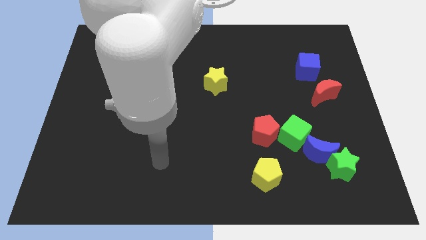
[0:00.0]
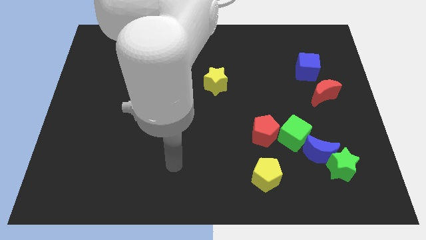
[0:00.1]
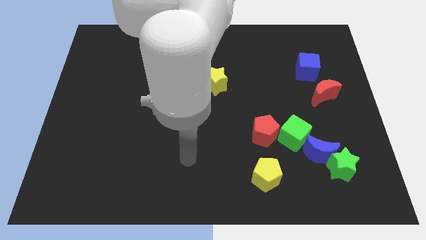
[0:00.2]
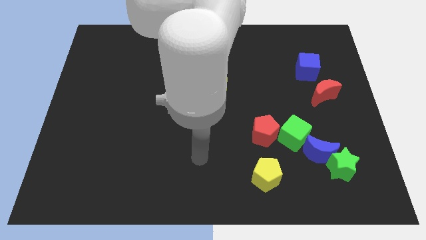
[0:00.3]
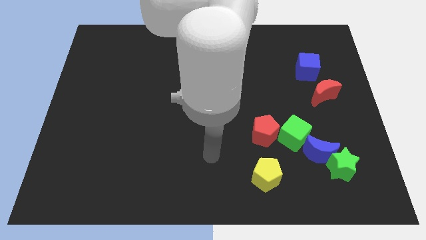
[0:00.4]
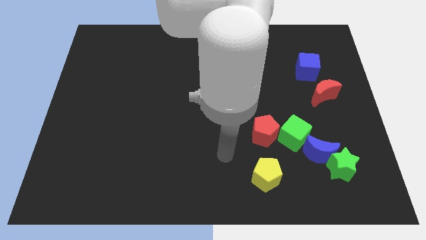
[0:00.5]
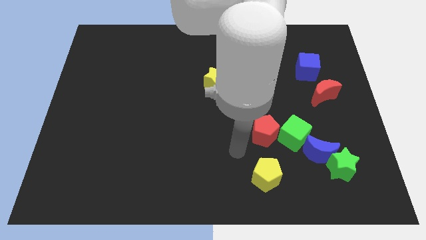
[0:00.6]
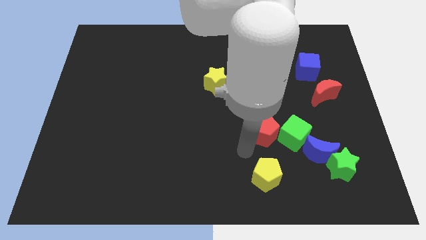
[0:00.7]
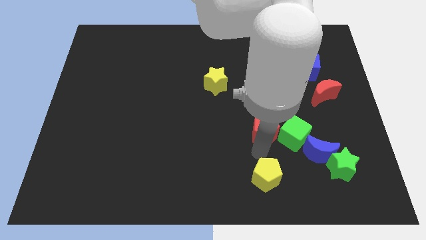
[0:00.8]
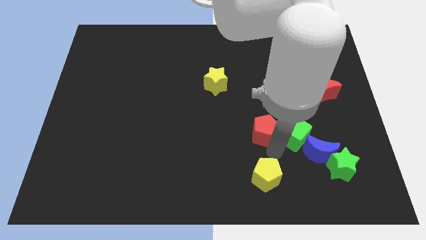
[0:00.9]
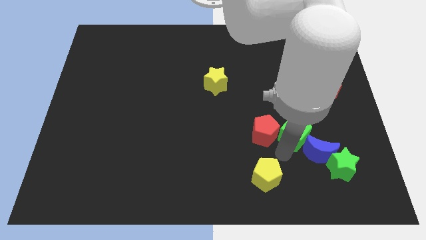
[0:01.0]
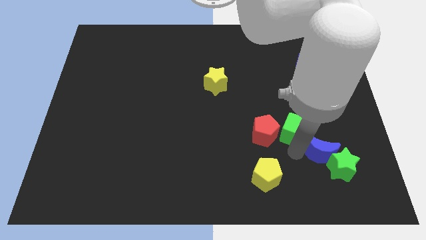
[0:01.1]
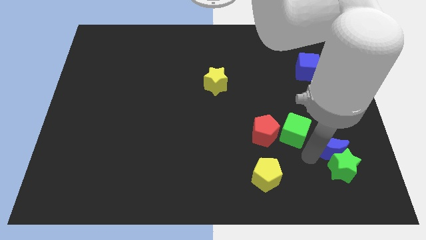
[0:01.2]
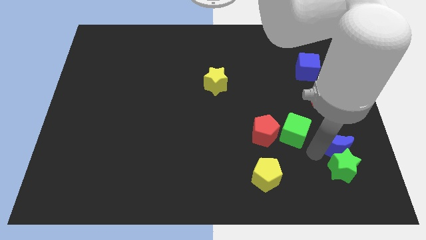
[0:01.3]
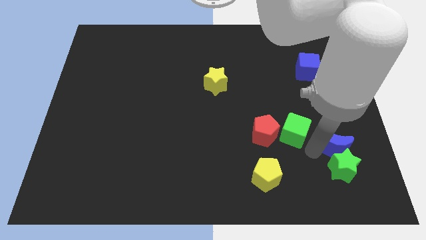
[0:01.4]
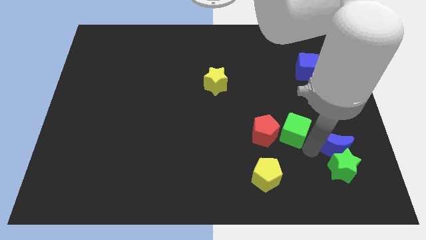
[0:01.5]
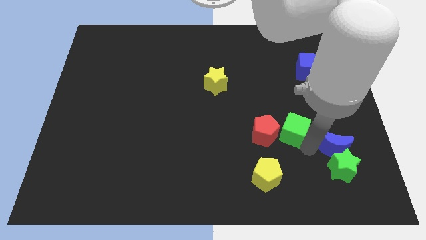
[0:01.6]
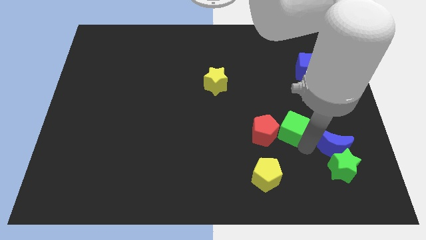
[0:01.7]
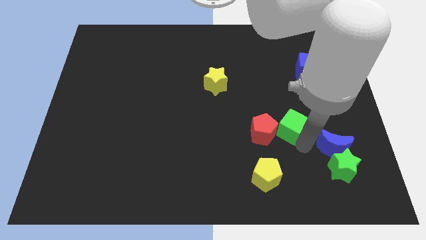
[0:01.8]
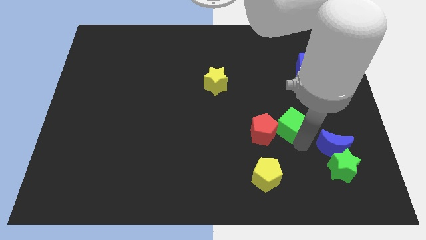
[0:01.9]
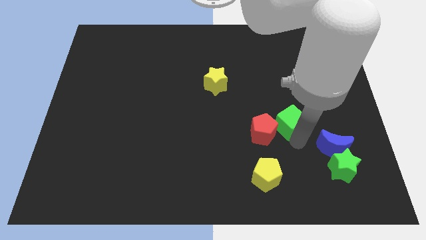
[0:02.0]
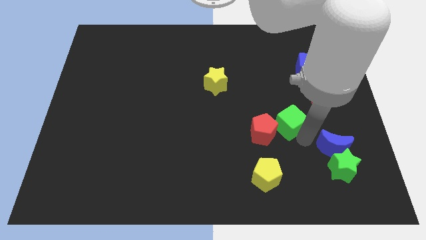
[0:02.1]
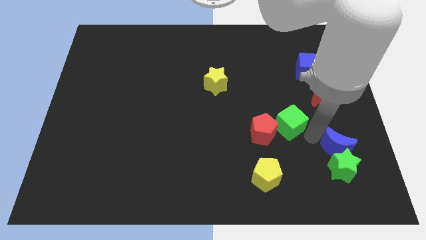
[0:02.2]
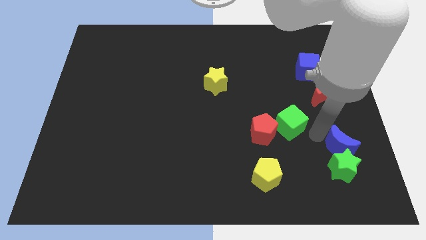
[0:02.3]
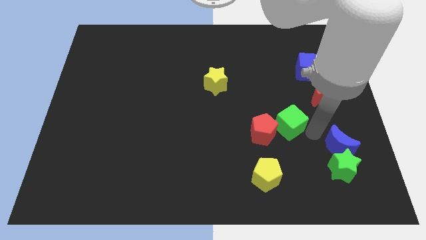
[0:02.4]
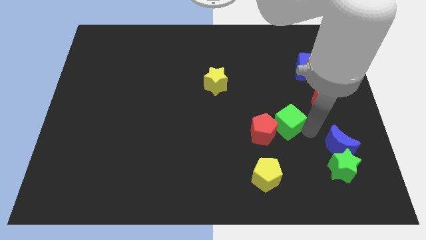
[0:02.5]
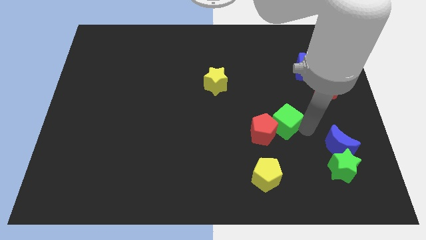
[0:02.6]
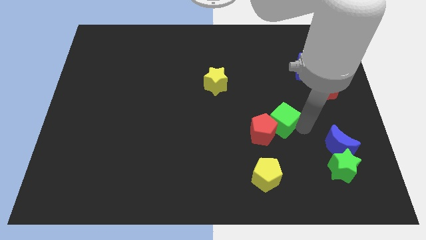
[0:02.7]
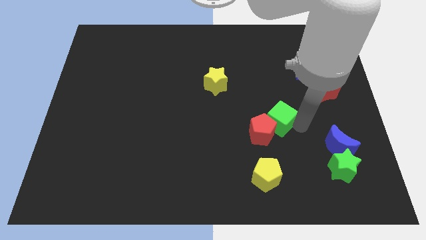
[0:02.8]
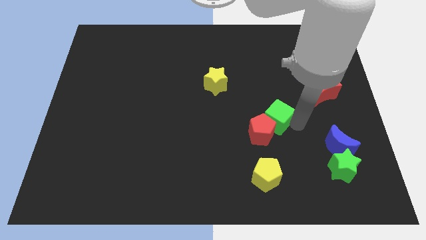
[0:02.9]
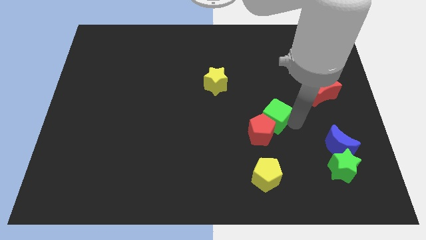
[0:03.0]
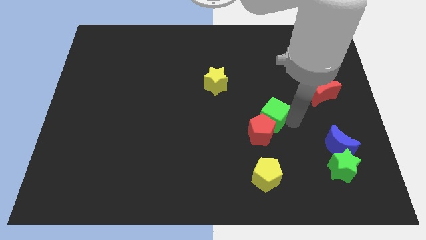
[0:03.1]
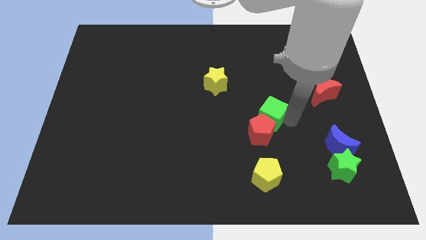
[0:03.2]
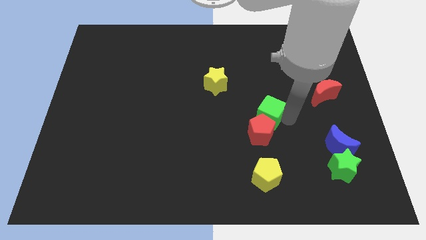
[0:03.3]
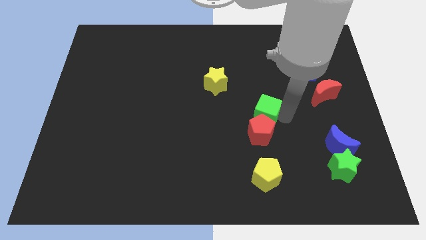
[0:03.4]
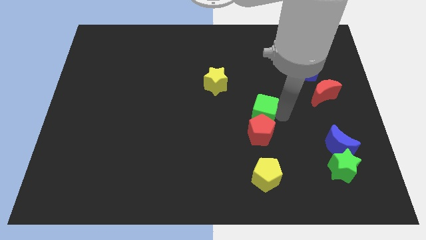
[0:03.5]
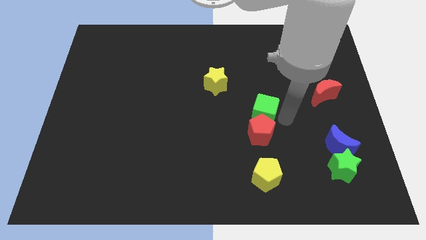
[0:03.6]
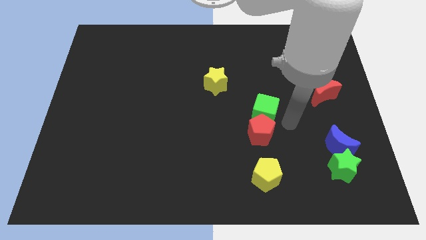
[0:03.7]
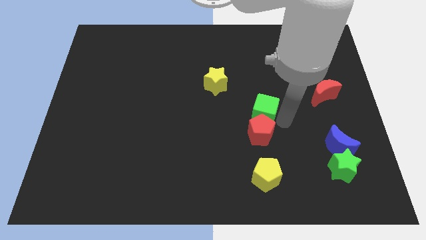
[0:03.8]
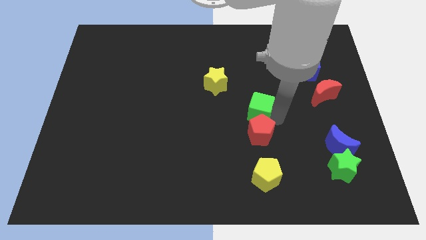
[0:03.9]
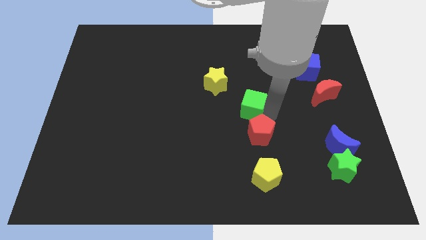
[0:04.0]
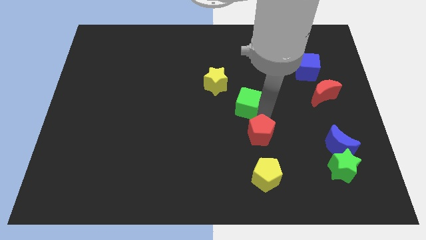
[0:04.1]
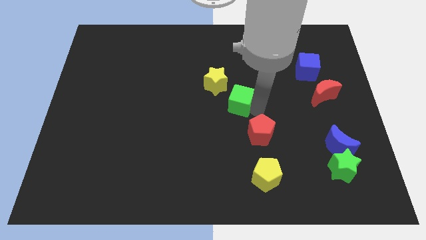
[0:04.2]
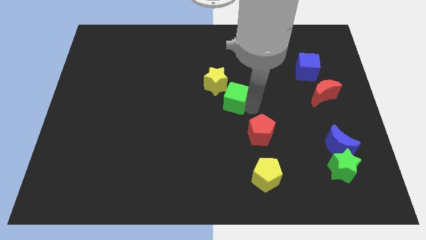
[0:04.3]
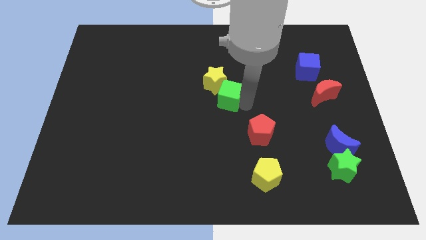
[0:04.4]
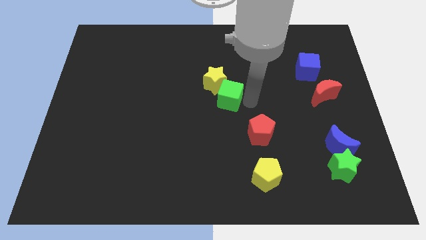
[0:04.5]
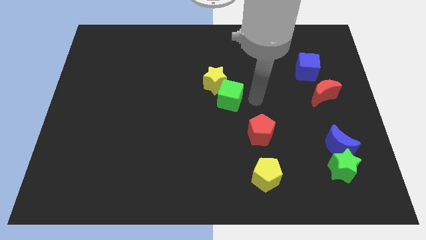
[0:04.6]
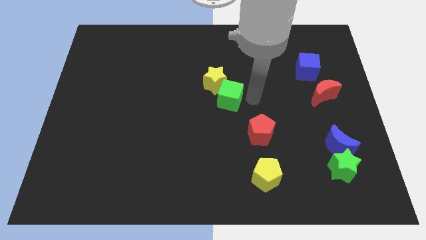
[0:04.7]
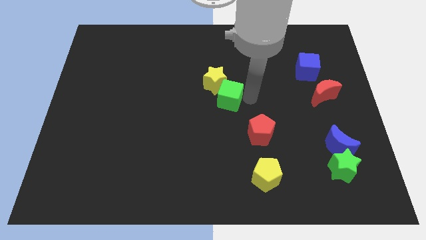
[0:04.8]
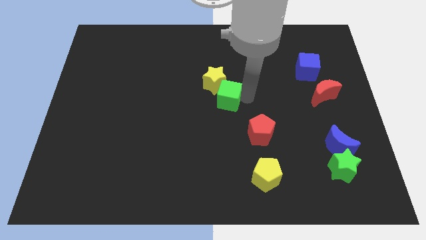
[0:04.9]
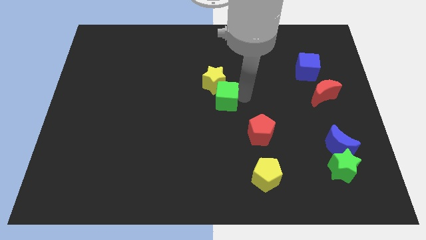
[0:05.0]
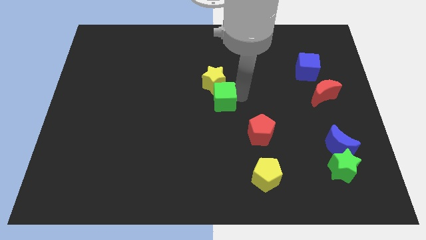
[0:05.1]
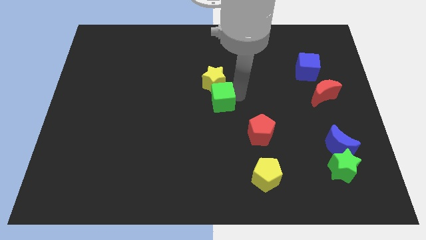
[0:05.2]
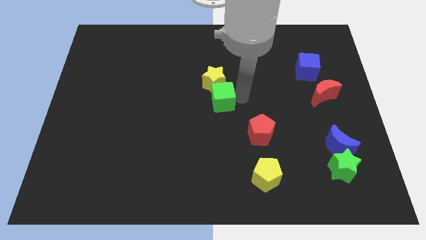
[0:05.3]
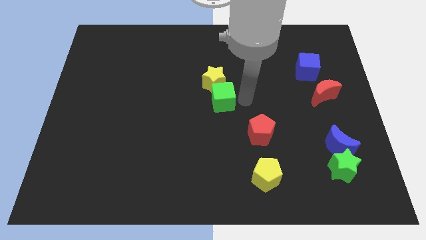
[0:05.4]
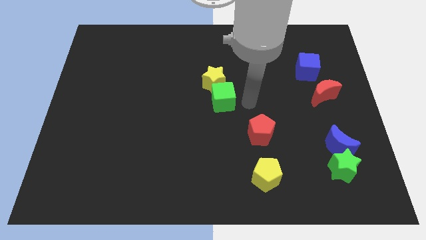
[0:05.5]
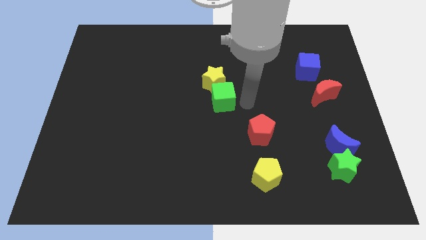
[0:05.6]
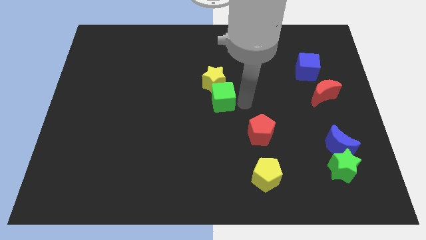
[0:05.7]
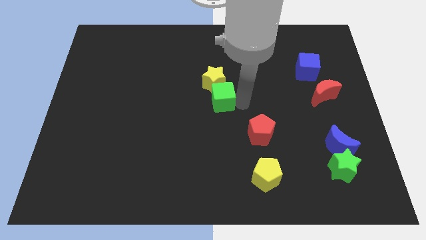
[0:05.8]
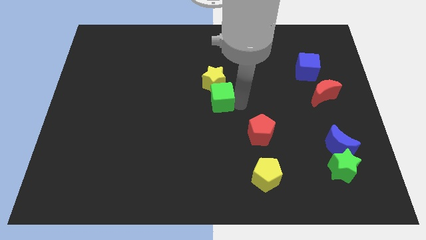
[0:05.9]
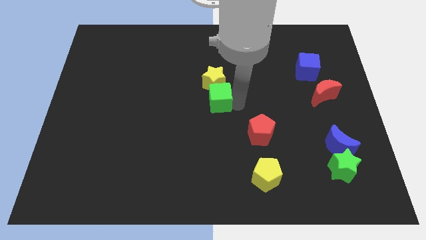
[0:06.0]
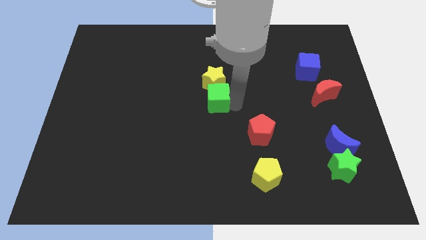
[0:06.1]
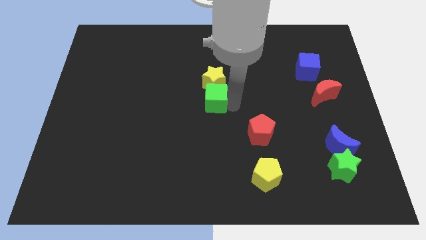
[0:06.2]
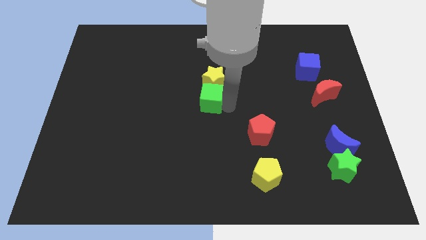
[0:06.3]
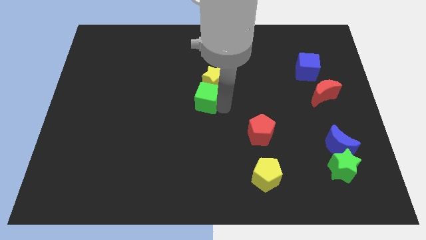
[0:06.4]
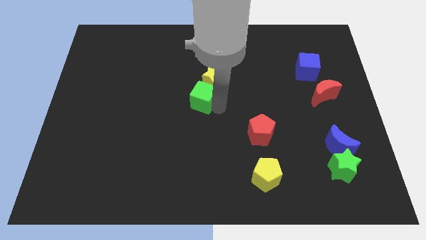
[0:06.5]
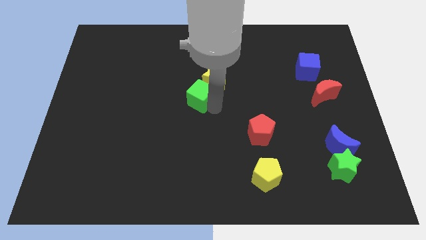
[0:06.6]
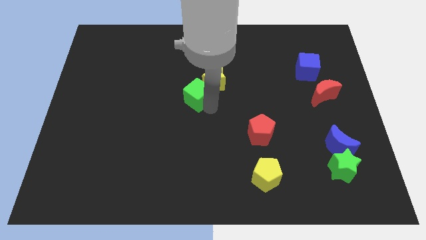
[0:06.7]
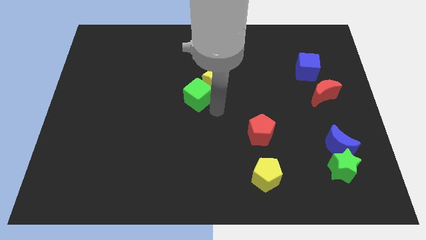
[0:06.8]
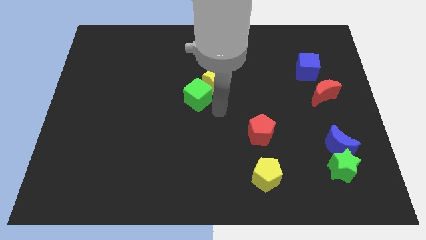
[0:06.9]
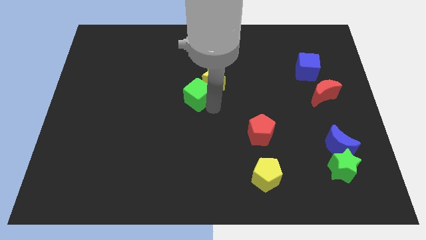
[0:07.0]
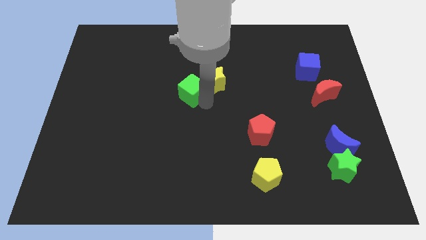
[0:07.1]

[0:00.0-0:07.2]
move the green cube to the left side of the yellow star
